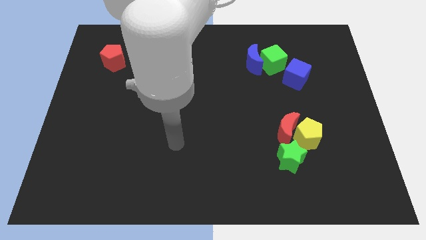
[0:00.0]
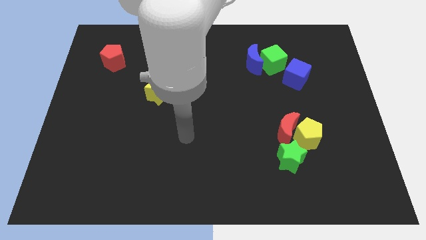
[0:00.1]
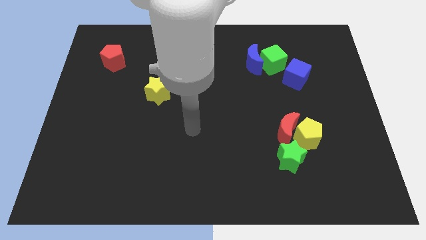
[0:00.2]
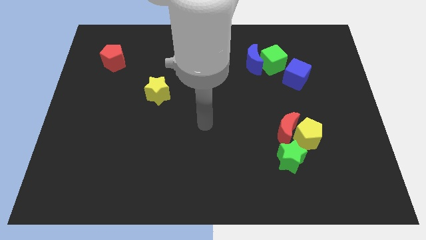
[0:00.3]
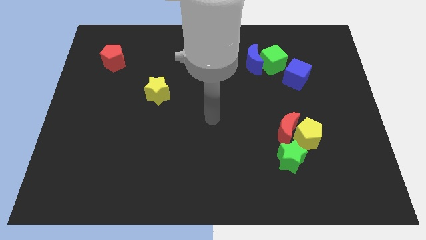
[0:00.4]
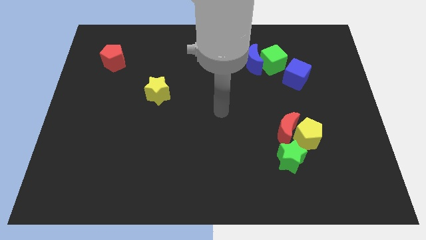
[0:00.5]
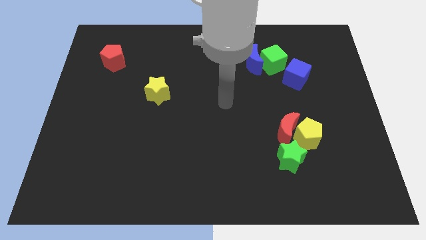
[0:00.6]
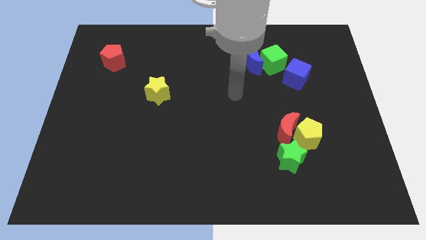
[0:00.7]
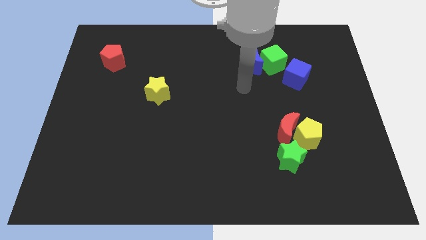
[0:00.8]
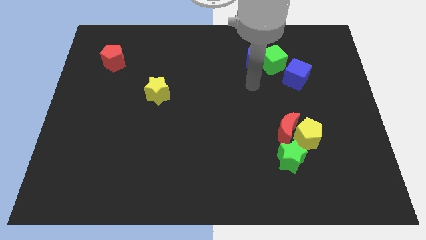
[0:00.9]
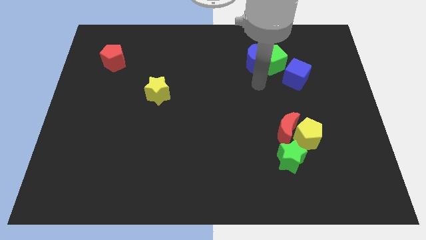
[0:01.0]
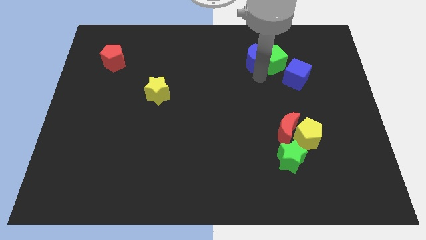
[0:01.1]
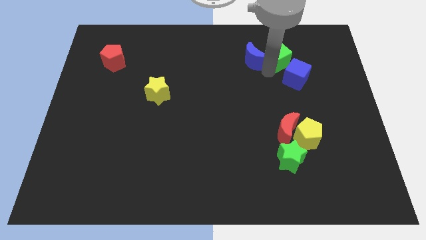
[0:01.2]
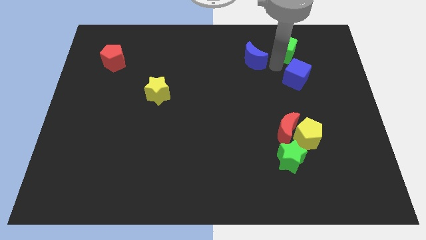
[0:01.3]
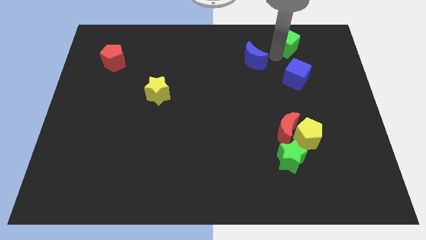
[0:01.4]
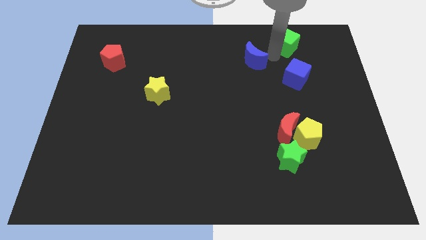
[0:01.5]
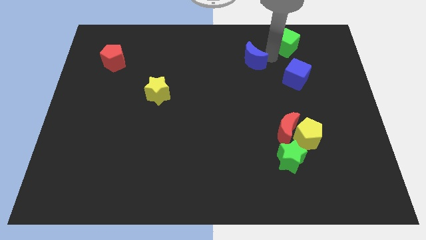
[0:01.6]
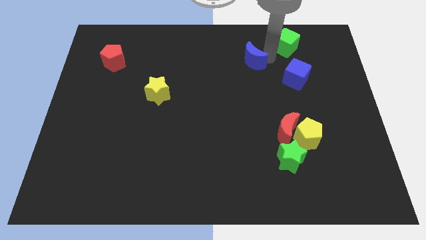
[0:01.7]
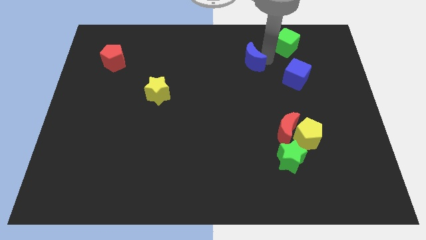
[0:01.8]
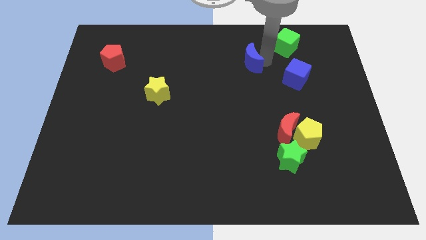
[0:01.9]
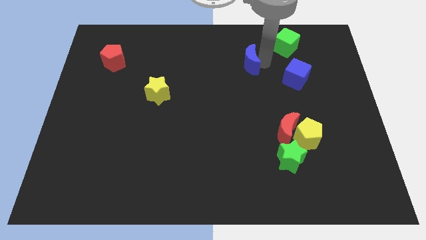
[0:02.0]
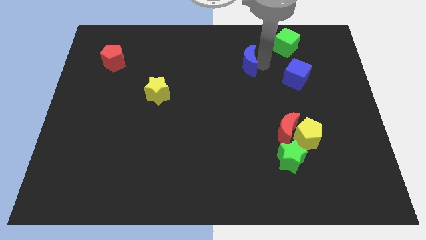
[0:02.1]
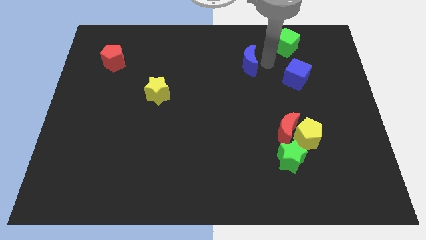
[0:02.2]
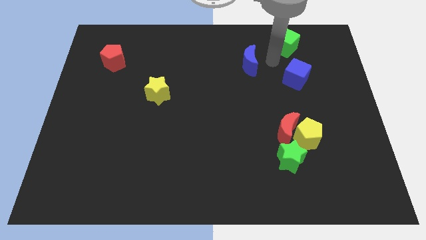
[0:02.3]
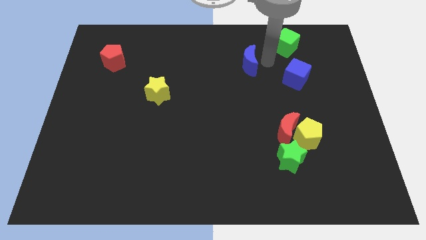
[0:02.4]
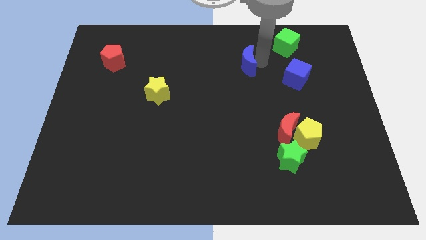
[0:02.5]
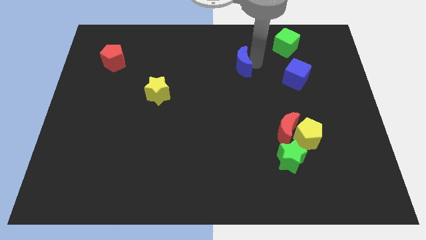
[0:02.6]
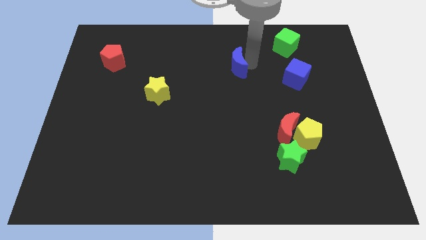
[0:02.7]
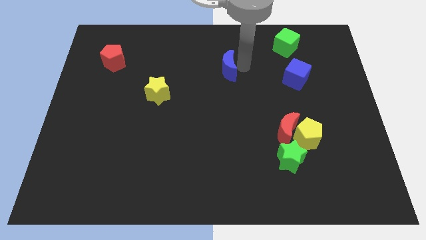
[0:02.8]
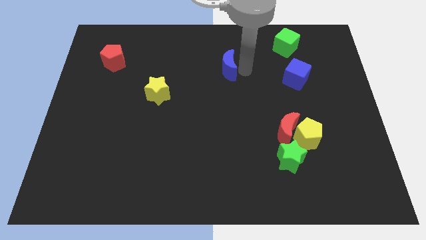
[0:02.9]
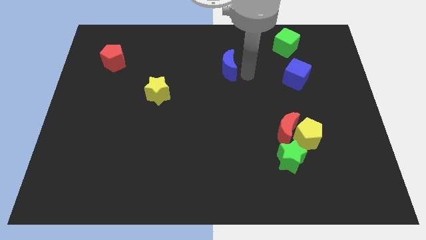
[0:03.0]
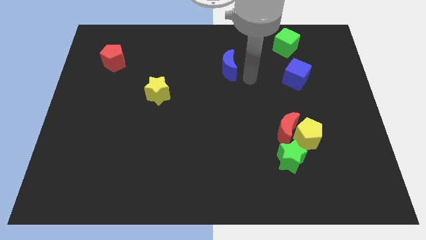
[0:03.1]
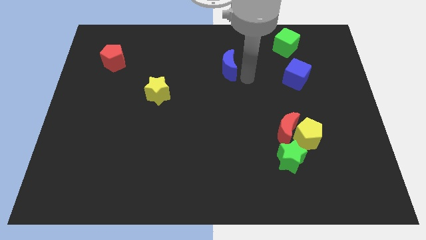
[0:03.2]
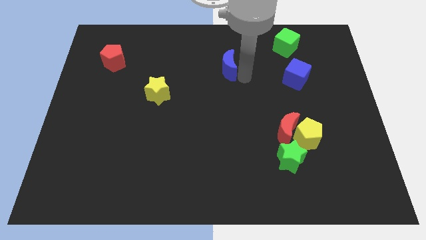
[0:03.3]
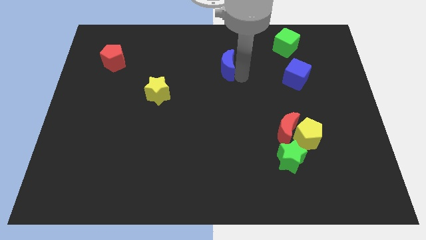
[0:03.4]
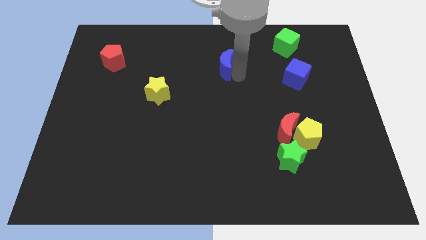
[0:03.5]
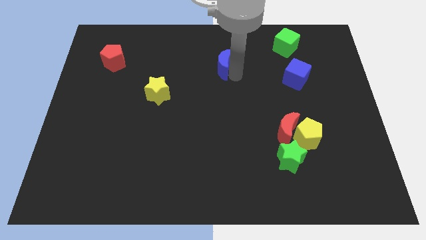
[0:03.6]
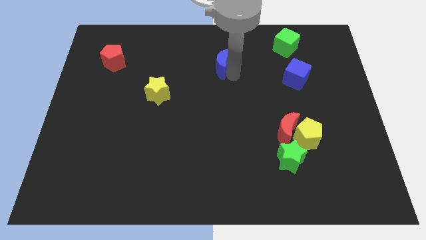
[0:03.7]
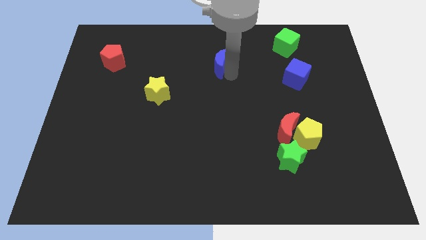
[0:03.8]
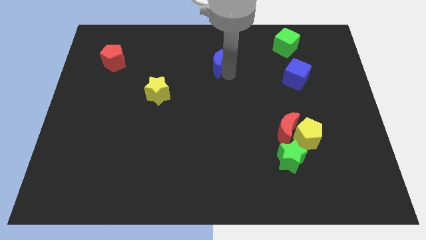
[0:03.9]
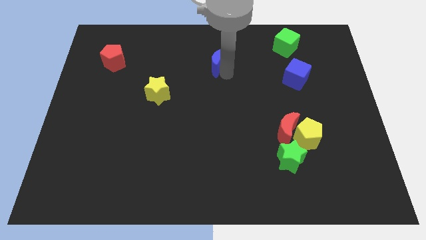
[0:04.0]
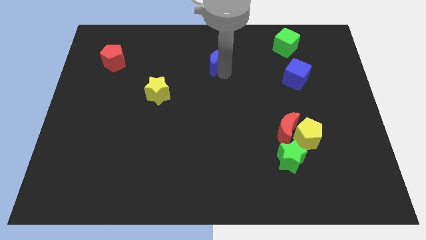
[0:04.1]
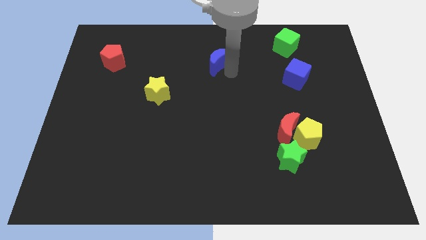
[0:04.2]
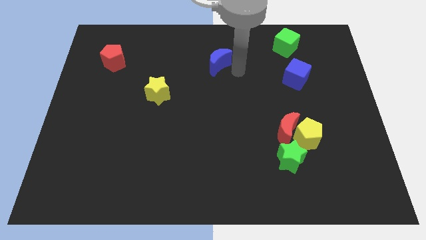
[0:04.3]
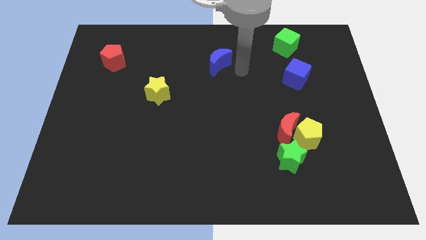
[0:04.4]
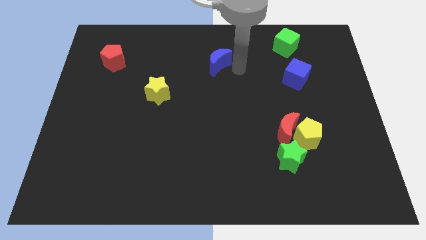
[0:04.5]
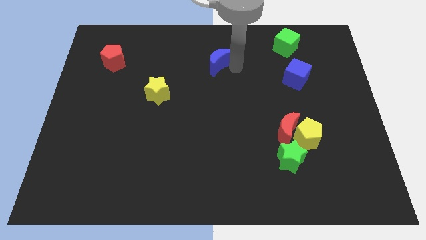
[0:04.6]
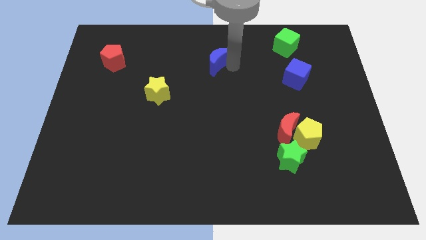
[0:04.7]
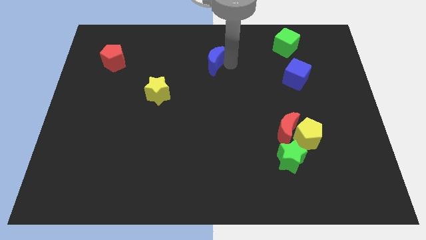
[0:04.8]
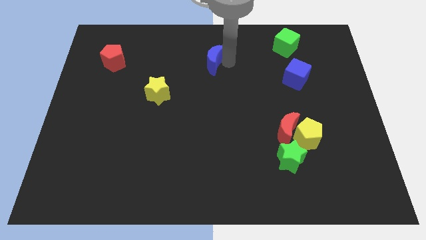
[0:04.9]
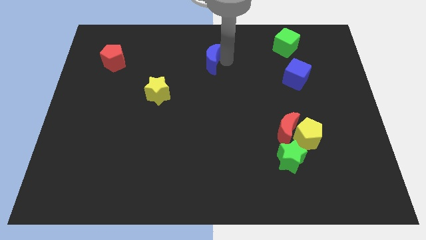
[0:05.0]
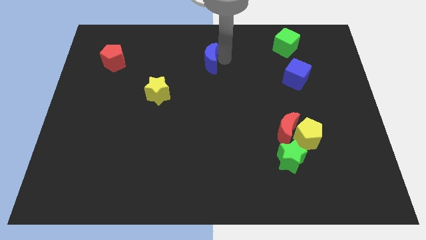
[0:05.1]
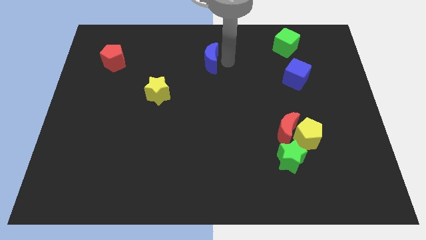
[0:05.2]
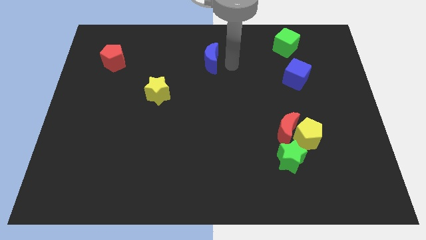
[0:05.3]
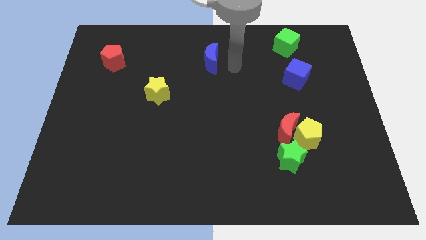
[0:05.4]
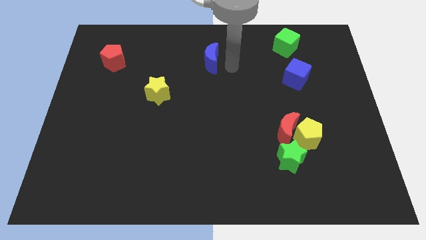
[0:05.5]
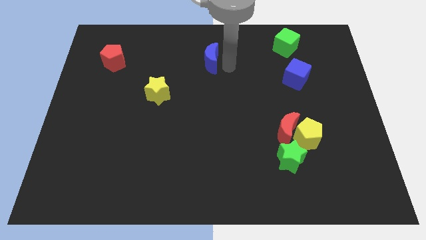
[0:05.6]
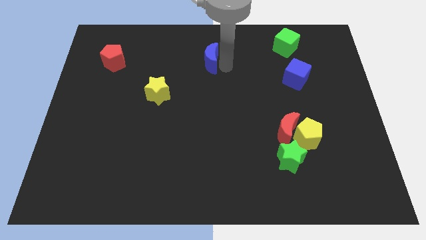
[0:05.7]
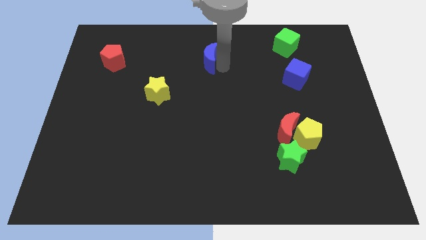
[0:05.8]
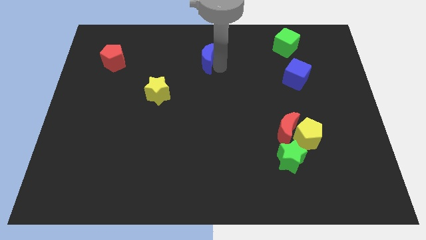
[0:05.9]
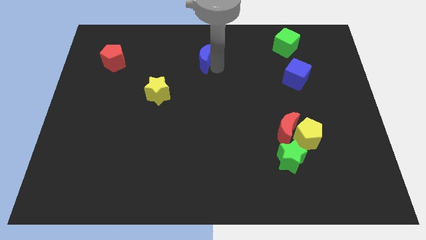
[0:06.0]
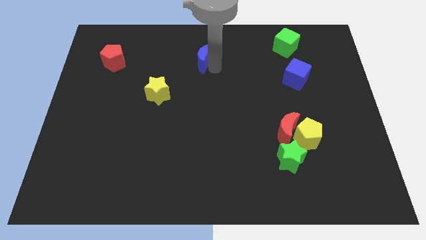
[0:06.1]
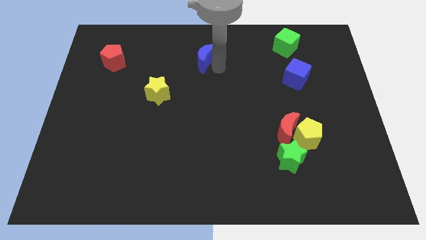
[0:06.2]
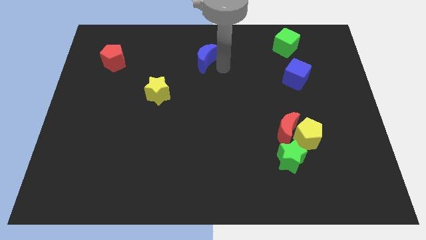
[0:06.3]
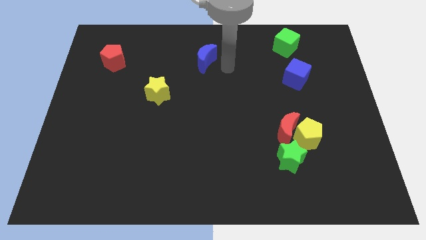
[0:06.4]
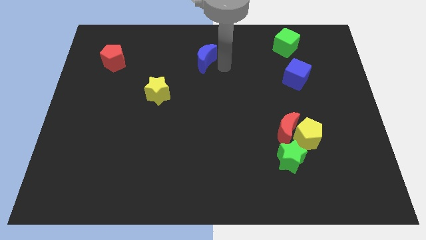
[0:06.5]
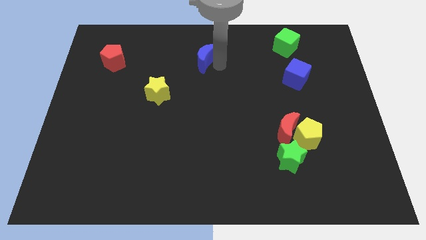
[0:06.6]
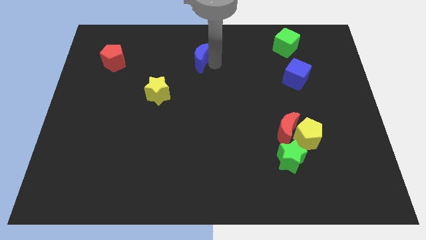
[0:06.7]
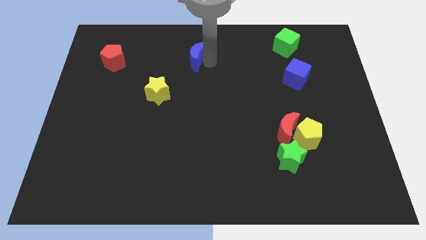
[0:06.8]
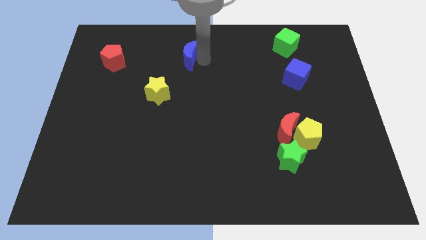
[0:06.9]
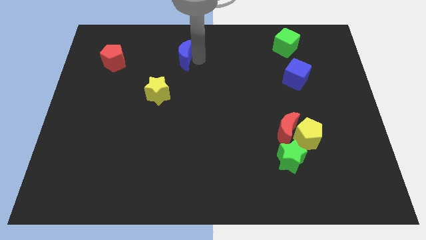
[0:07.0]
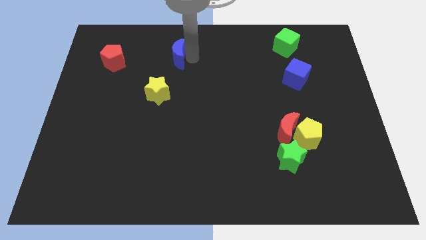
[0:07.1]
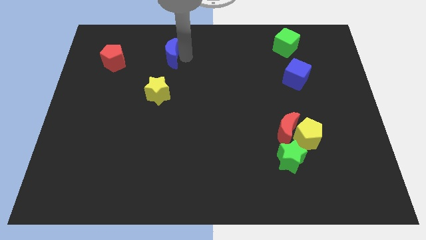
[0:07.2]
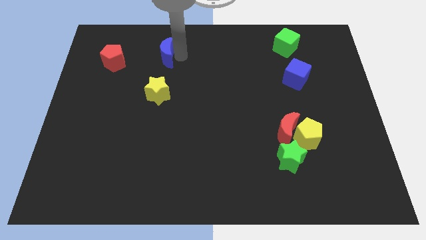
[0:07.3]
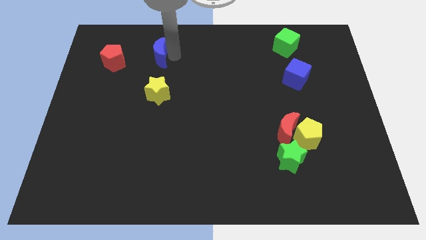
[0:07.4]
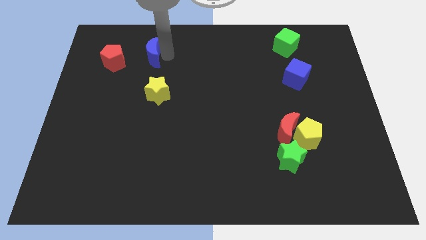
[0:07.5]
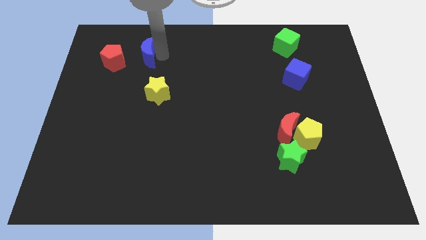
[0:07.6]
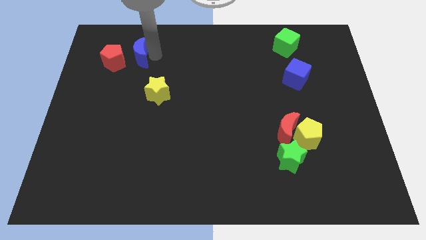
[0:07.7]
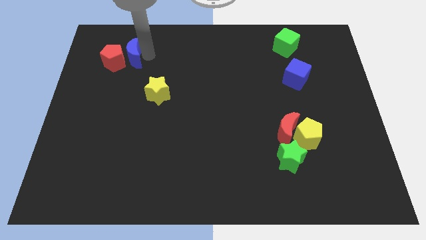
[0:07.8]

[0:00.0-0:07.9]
slide the blue moon towards the red pentagon
